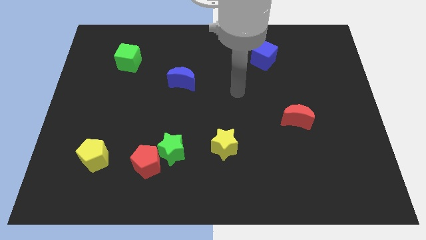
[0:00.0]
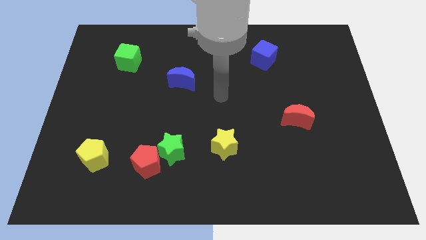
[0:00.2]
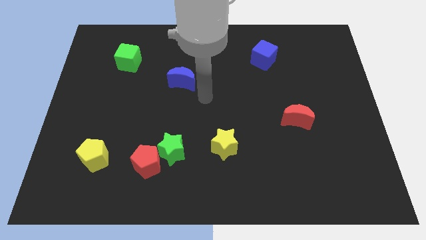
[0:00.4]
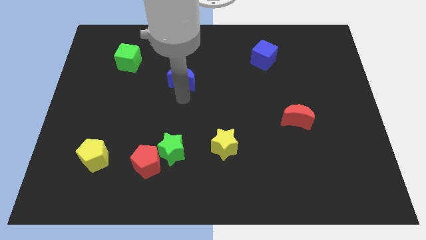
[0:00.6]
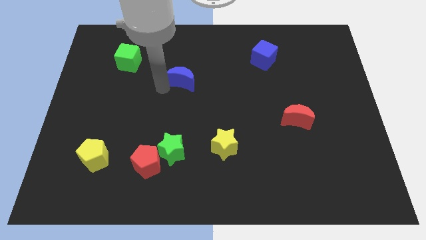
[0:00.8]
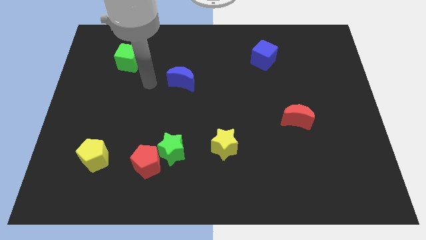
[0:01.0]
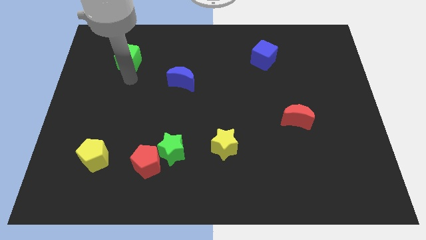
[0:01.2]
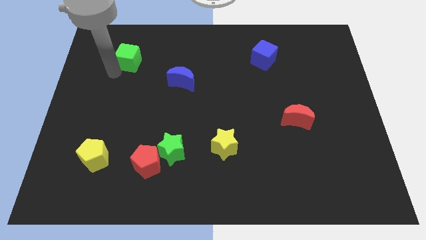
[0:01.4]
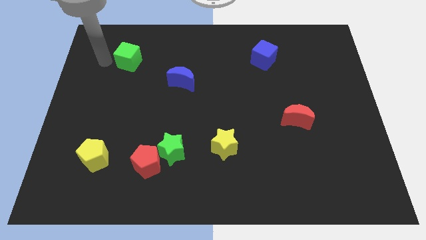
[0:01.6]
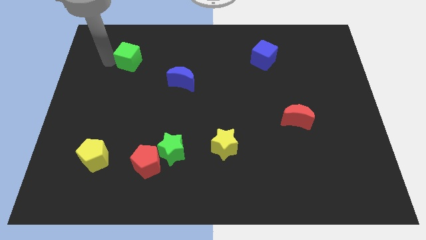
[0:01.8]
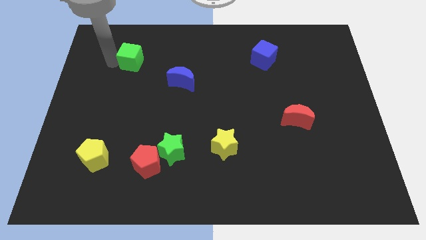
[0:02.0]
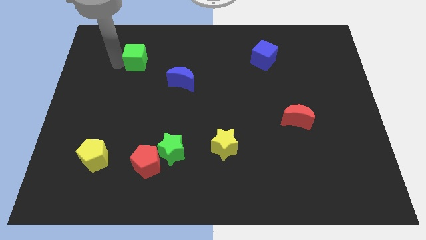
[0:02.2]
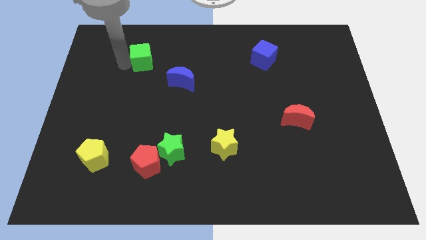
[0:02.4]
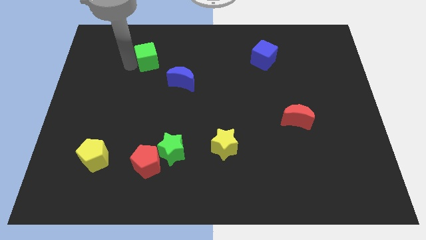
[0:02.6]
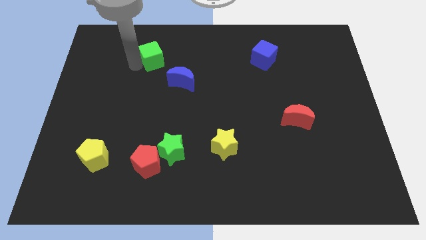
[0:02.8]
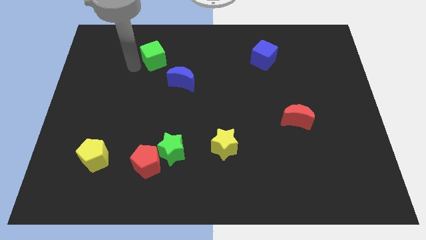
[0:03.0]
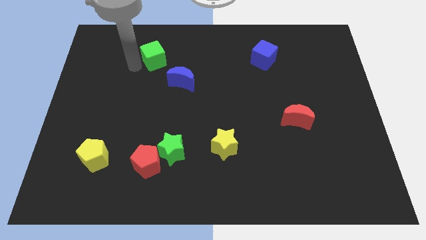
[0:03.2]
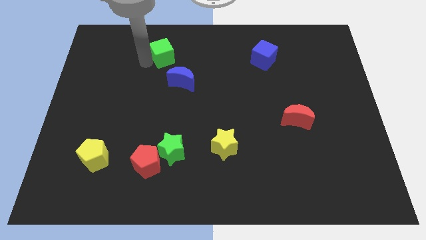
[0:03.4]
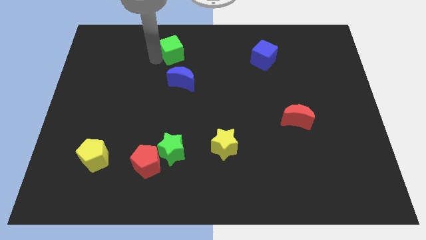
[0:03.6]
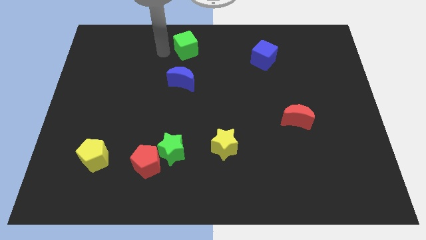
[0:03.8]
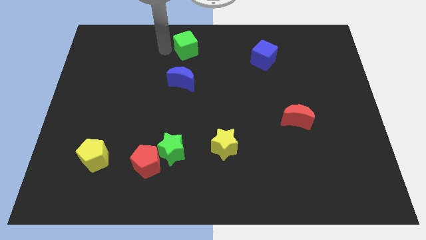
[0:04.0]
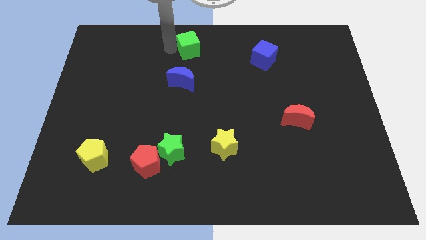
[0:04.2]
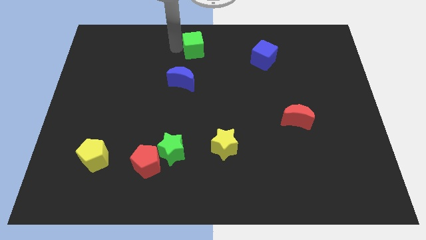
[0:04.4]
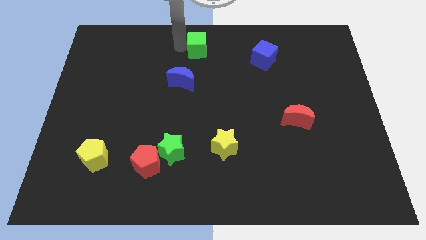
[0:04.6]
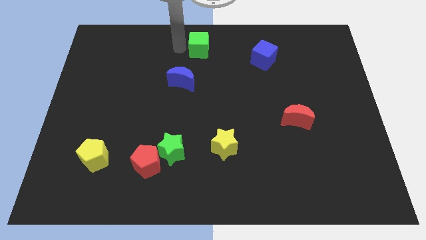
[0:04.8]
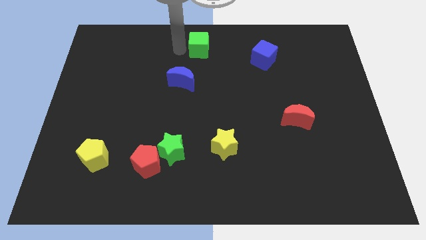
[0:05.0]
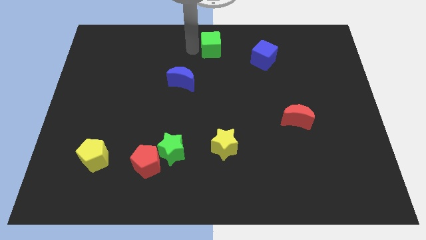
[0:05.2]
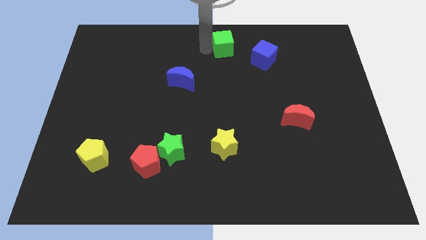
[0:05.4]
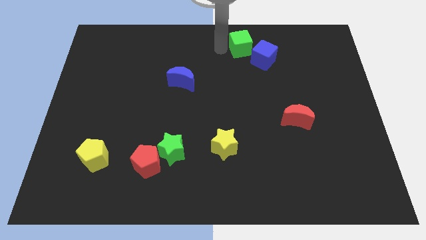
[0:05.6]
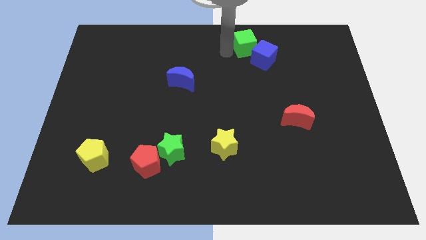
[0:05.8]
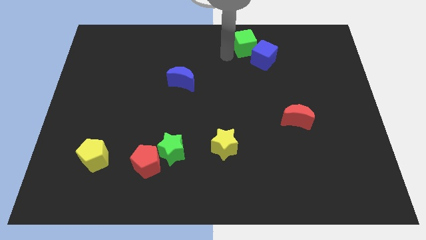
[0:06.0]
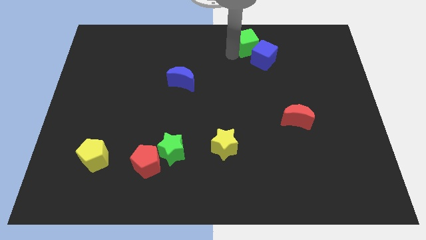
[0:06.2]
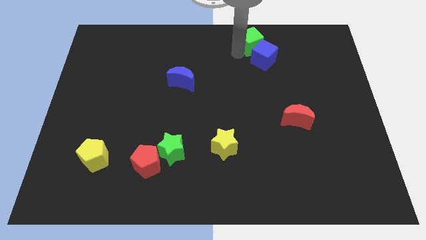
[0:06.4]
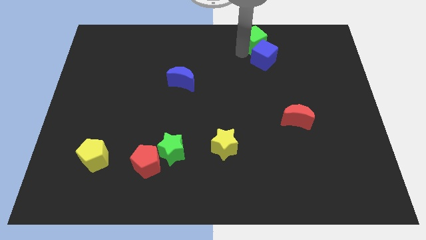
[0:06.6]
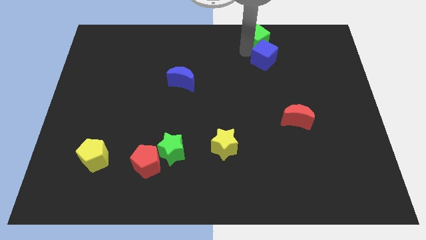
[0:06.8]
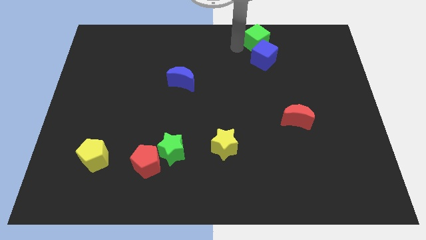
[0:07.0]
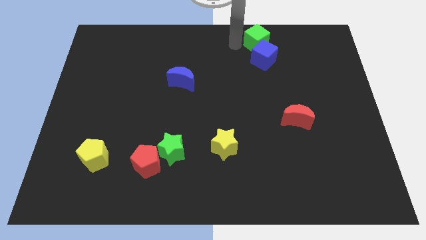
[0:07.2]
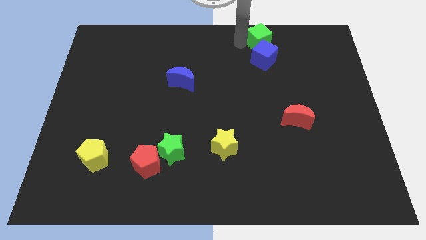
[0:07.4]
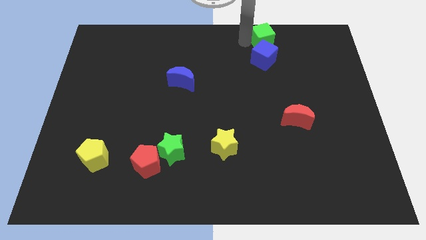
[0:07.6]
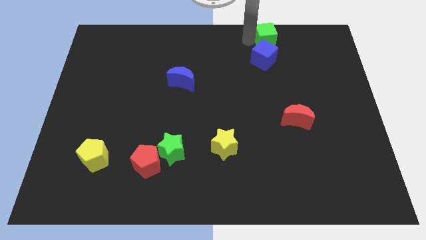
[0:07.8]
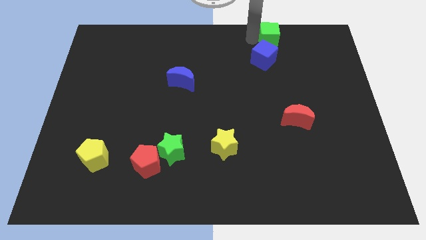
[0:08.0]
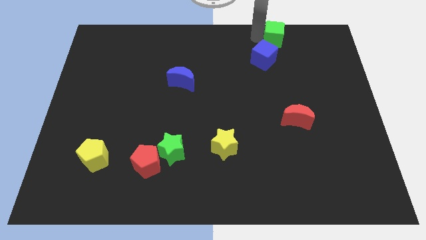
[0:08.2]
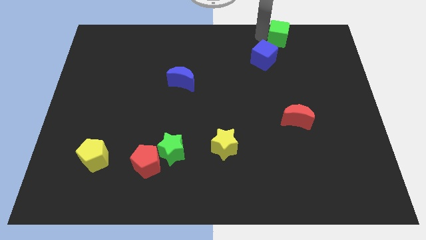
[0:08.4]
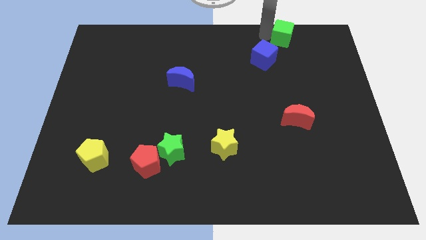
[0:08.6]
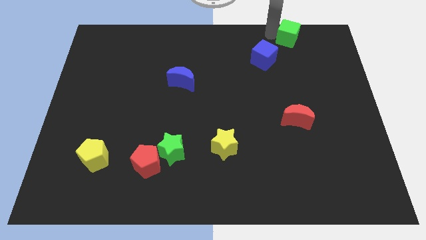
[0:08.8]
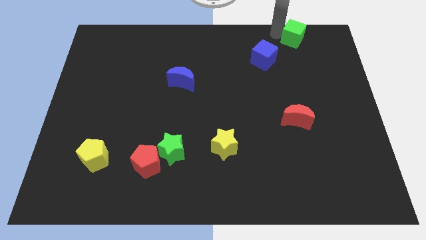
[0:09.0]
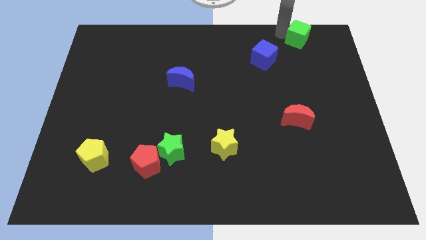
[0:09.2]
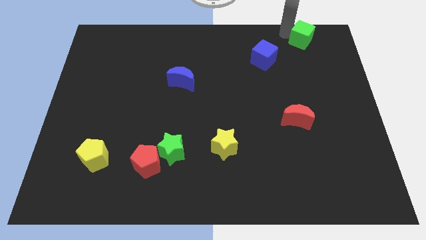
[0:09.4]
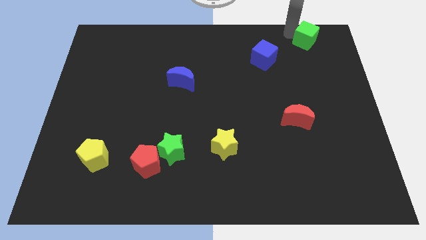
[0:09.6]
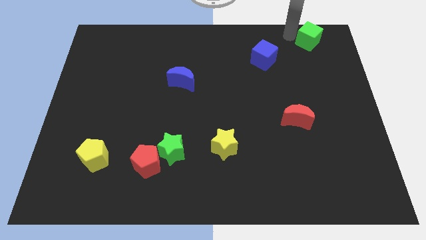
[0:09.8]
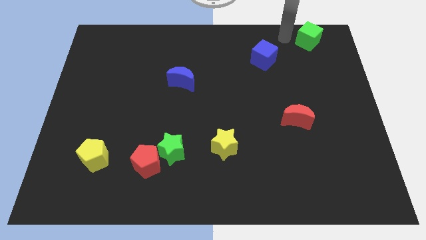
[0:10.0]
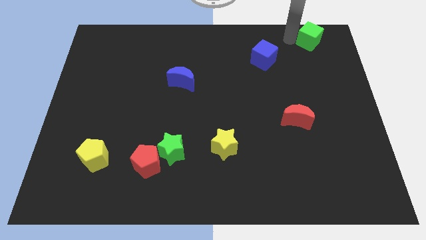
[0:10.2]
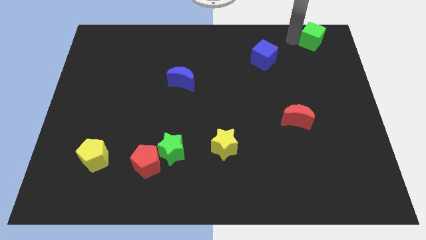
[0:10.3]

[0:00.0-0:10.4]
move the green cube to the top right

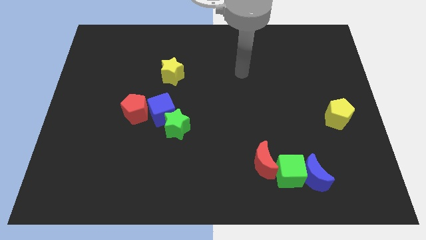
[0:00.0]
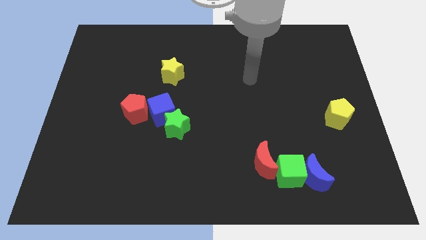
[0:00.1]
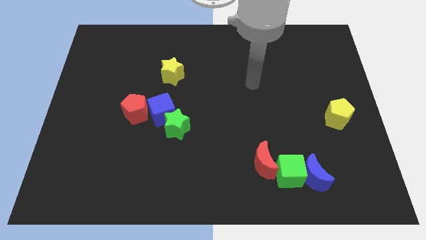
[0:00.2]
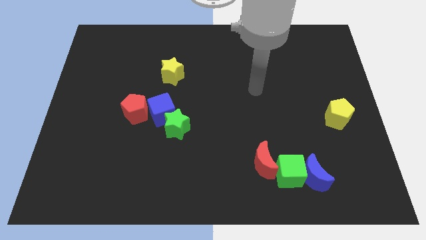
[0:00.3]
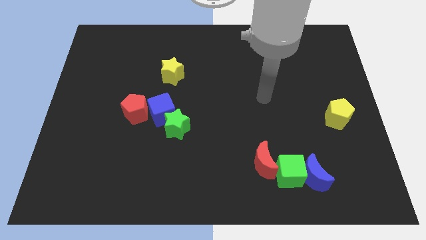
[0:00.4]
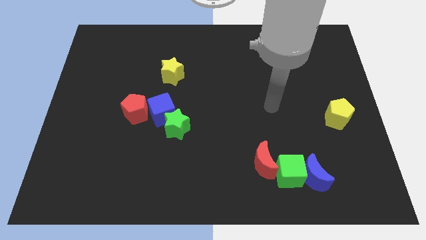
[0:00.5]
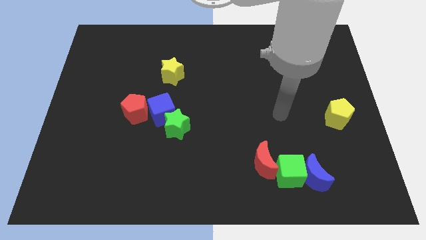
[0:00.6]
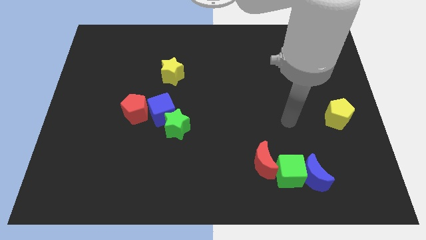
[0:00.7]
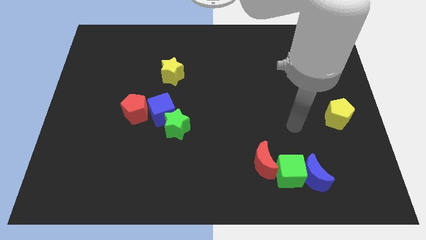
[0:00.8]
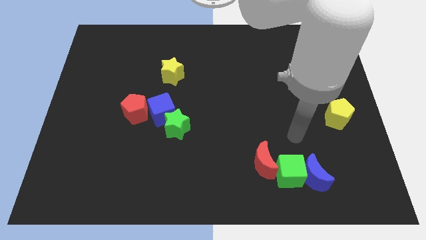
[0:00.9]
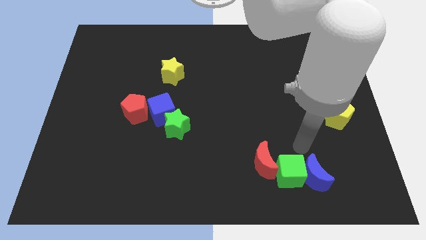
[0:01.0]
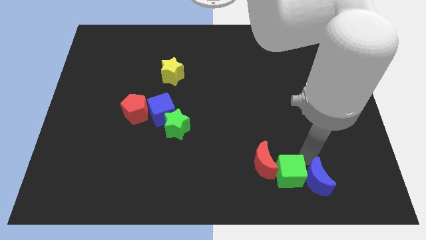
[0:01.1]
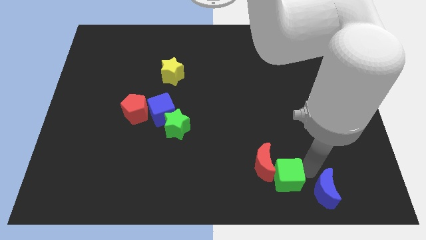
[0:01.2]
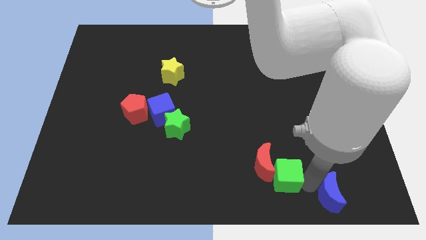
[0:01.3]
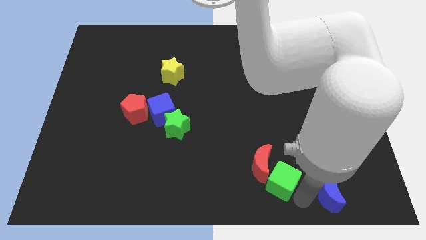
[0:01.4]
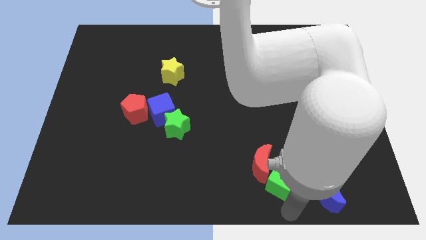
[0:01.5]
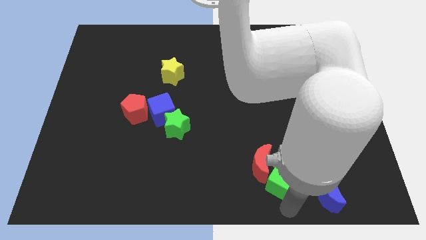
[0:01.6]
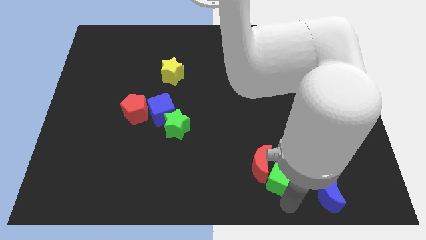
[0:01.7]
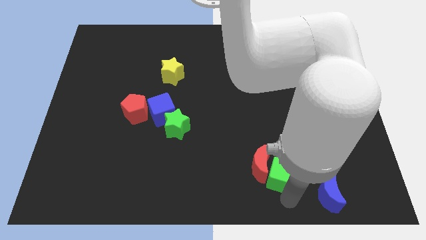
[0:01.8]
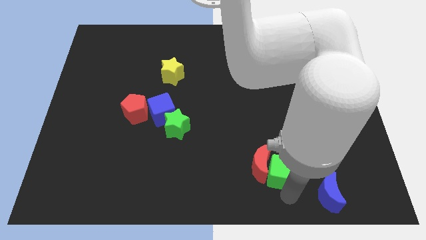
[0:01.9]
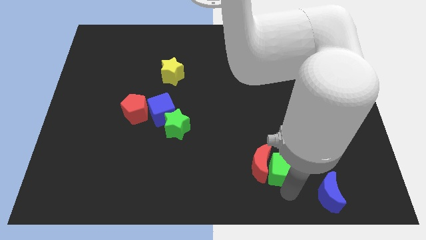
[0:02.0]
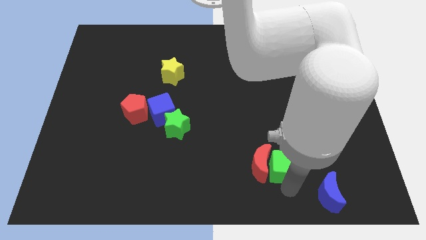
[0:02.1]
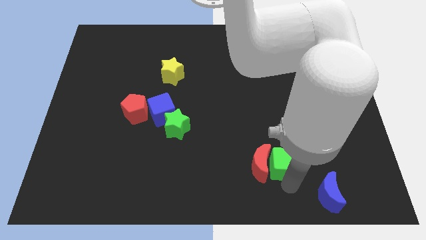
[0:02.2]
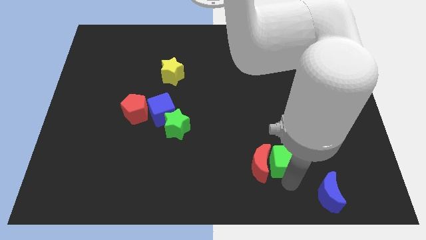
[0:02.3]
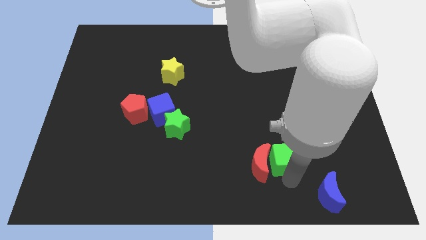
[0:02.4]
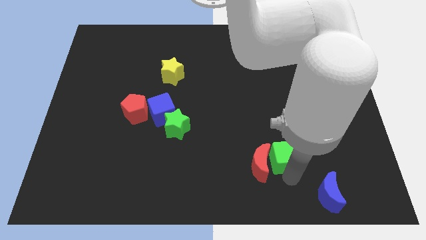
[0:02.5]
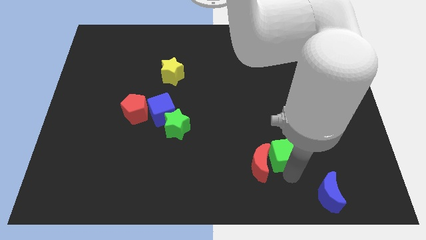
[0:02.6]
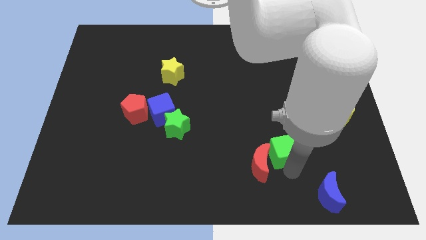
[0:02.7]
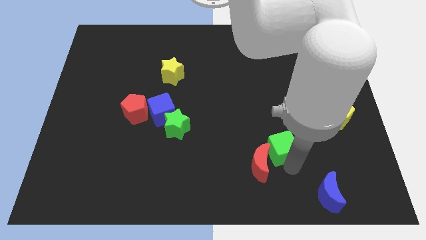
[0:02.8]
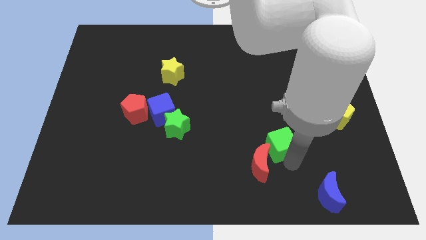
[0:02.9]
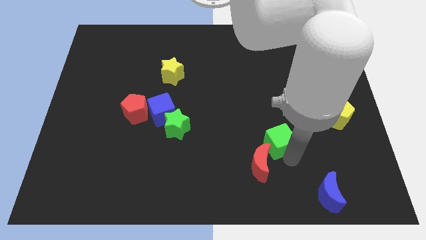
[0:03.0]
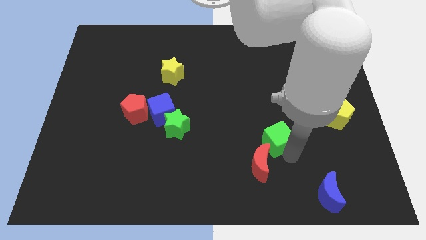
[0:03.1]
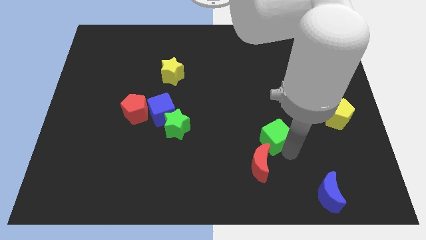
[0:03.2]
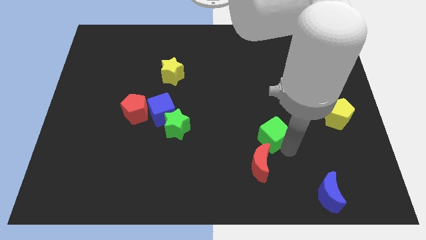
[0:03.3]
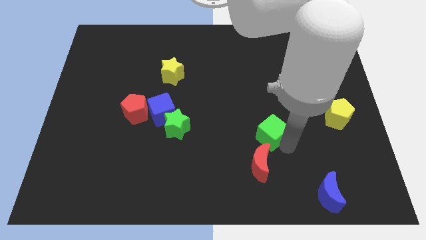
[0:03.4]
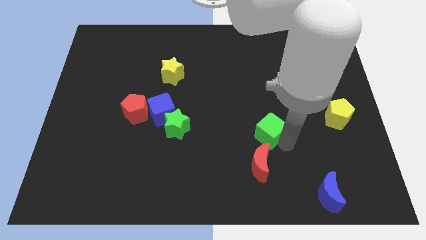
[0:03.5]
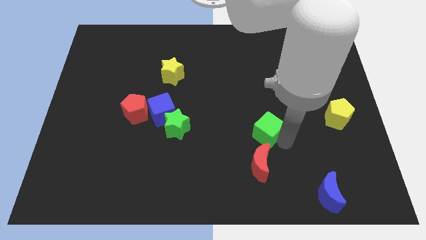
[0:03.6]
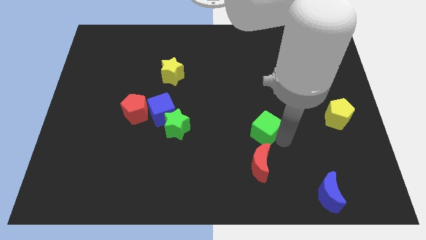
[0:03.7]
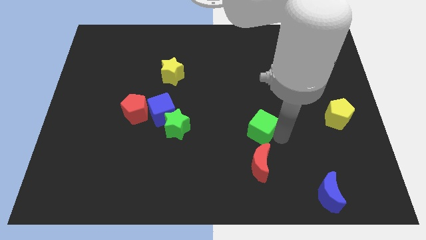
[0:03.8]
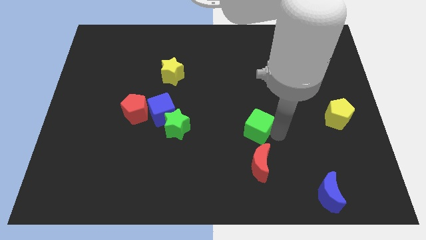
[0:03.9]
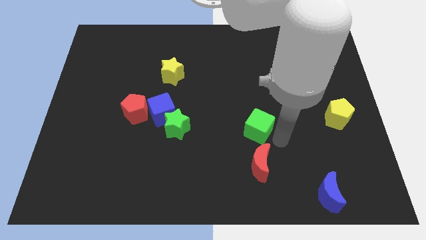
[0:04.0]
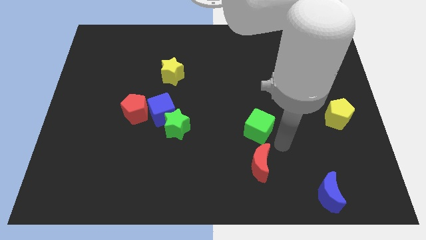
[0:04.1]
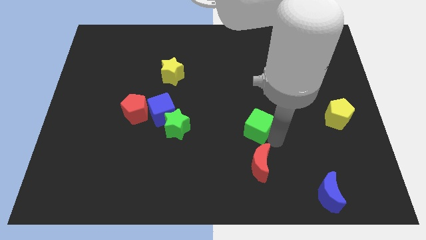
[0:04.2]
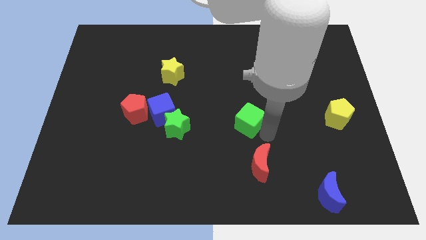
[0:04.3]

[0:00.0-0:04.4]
slide the green cube to the middle
